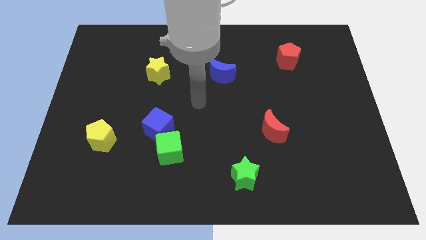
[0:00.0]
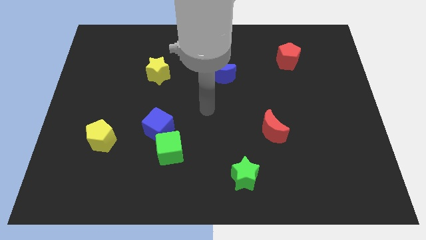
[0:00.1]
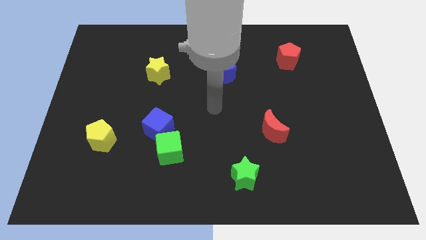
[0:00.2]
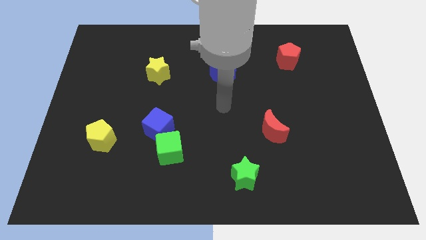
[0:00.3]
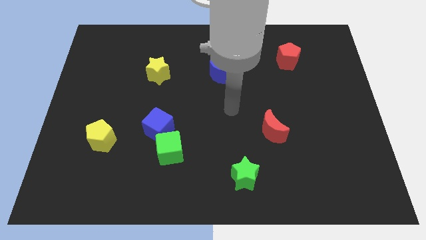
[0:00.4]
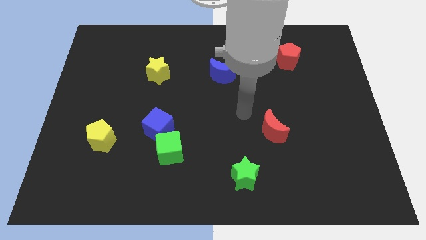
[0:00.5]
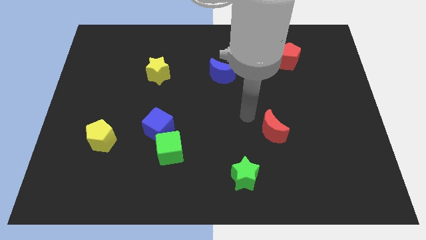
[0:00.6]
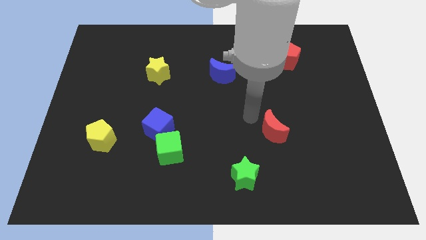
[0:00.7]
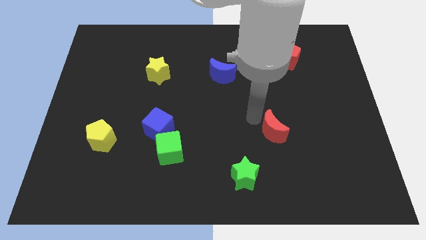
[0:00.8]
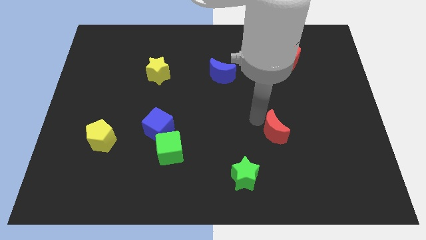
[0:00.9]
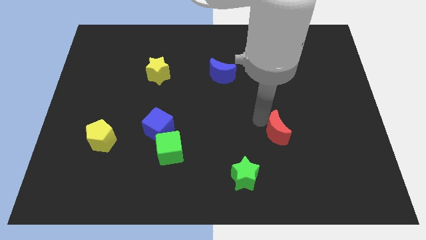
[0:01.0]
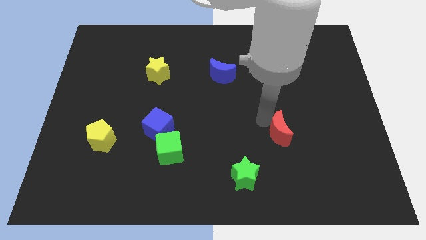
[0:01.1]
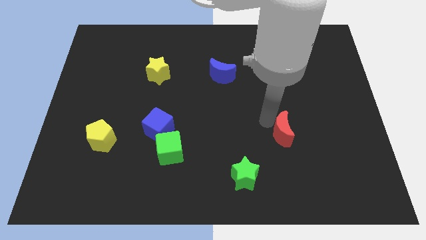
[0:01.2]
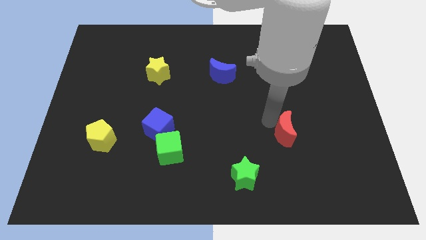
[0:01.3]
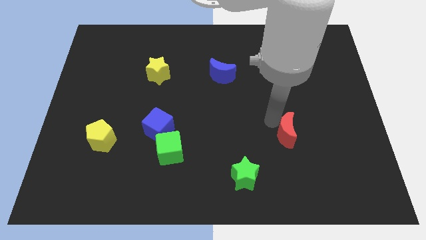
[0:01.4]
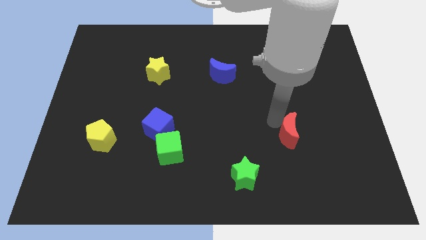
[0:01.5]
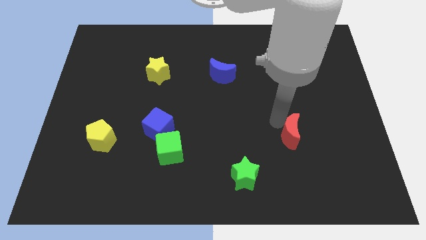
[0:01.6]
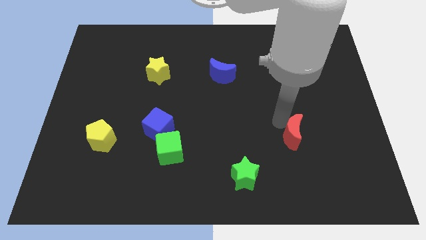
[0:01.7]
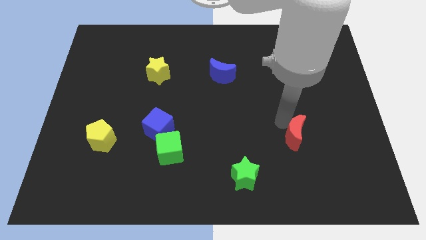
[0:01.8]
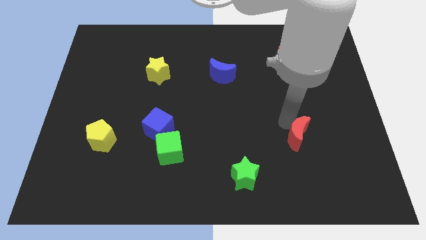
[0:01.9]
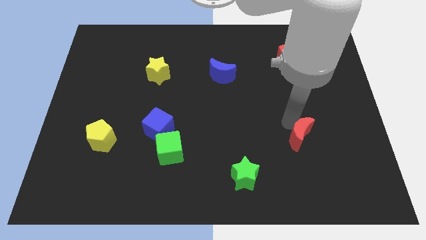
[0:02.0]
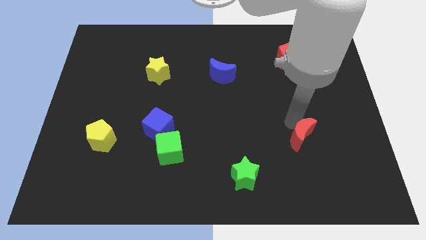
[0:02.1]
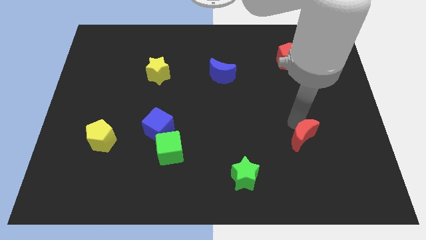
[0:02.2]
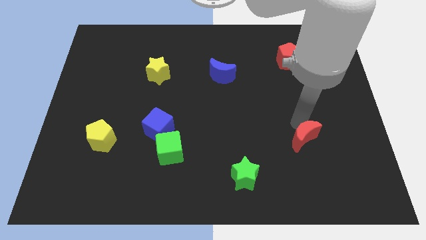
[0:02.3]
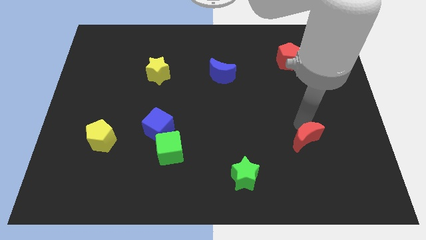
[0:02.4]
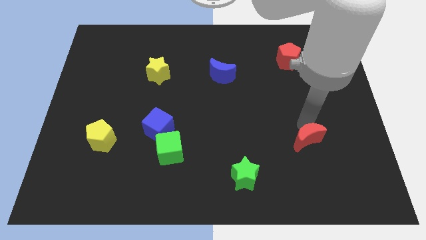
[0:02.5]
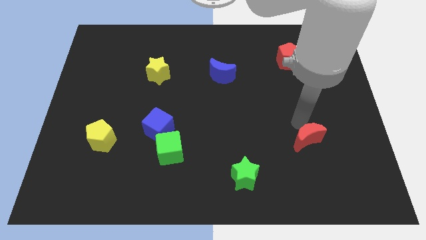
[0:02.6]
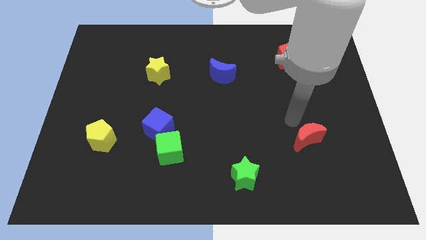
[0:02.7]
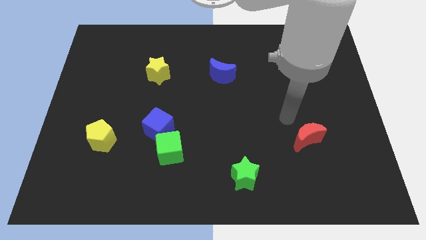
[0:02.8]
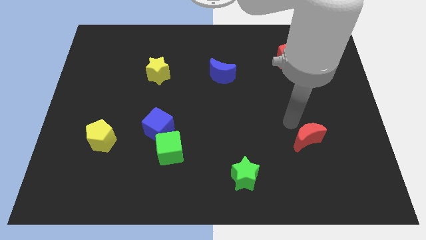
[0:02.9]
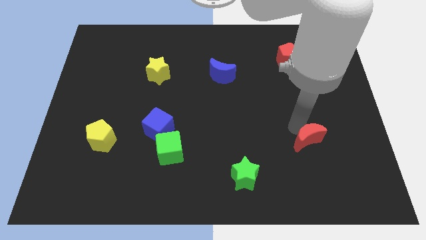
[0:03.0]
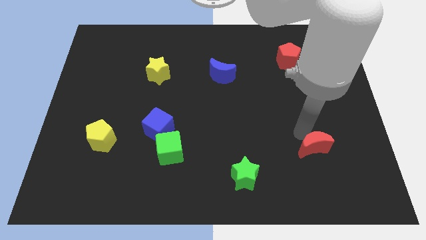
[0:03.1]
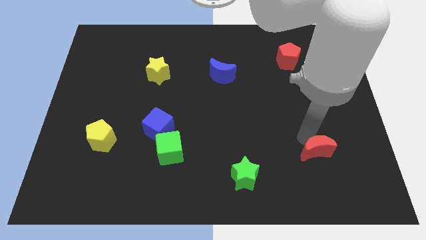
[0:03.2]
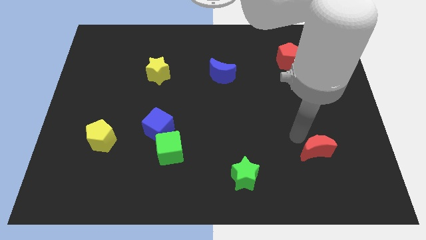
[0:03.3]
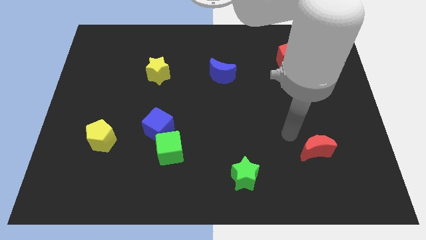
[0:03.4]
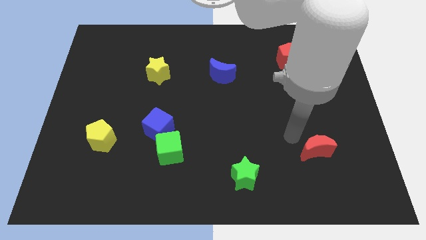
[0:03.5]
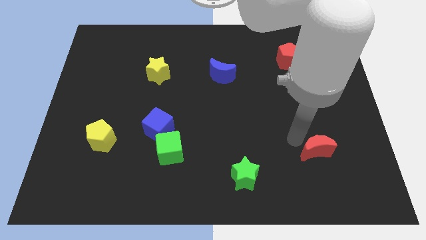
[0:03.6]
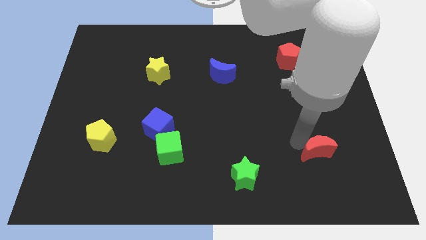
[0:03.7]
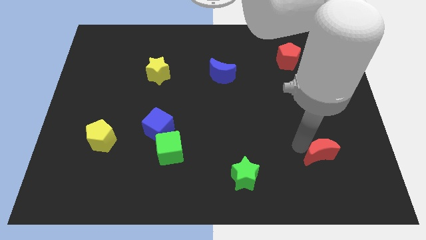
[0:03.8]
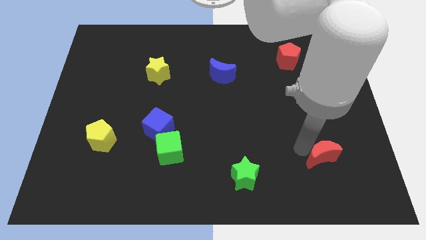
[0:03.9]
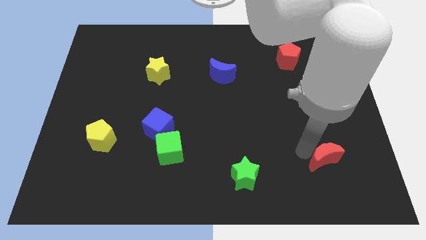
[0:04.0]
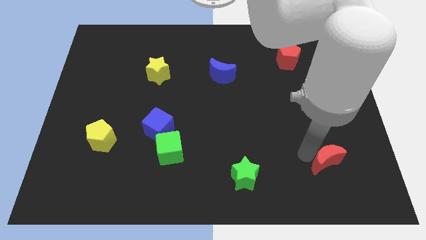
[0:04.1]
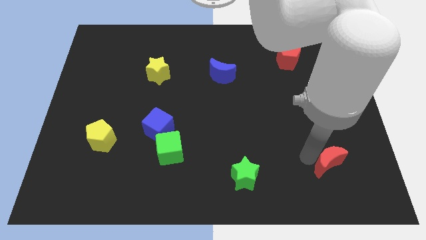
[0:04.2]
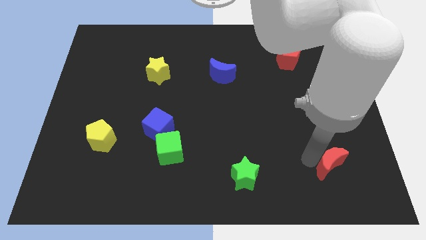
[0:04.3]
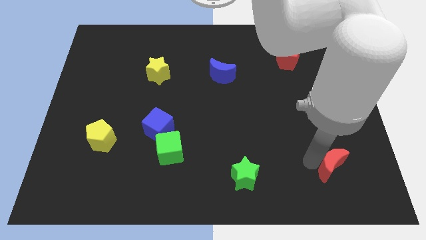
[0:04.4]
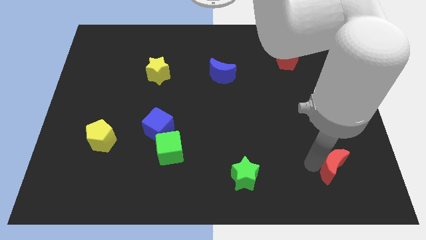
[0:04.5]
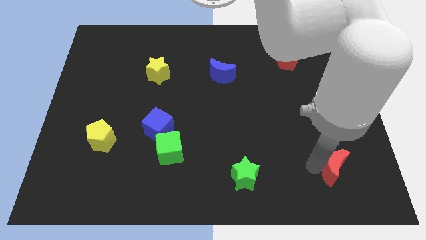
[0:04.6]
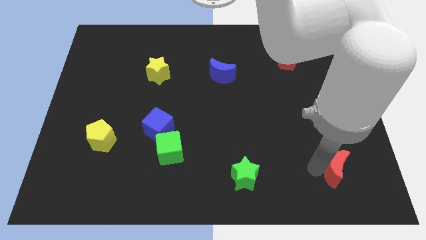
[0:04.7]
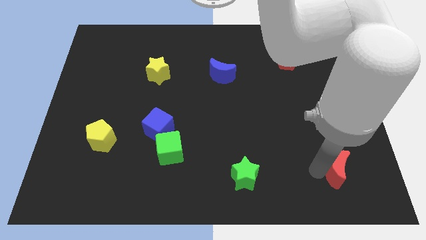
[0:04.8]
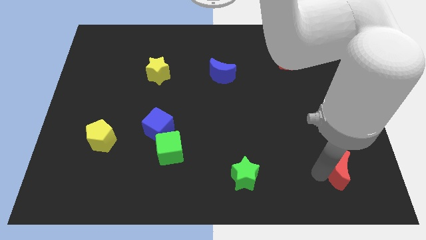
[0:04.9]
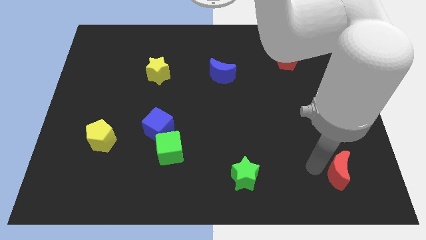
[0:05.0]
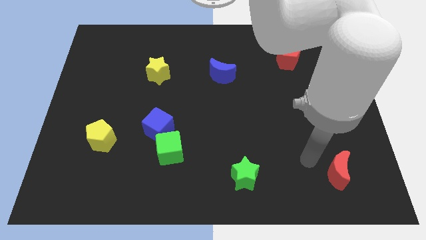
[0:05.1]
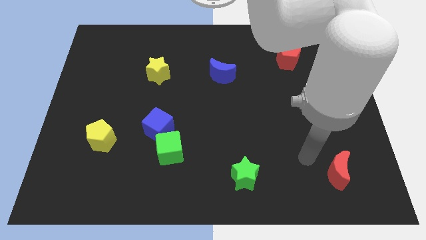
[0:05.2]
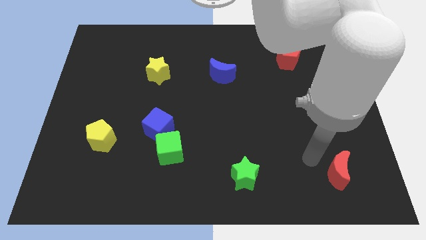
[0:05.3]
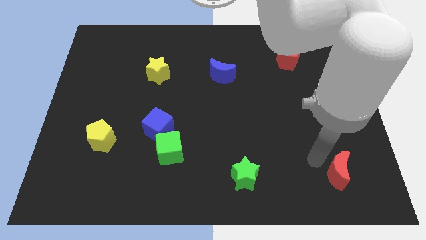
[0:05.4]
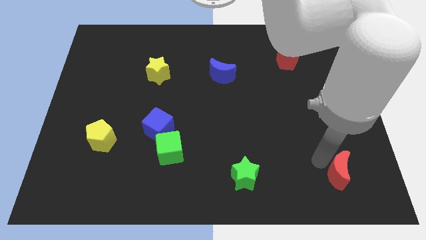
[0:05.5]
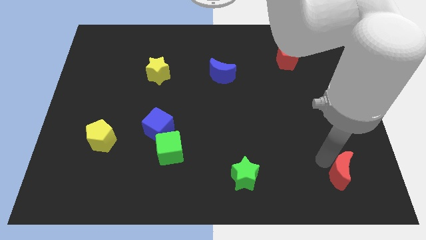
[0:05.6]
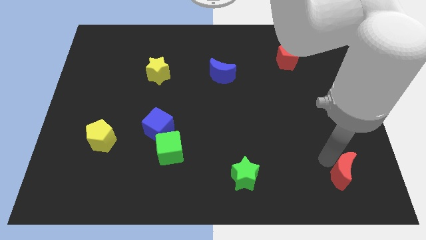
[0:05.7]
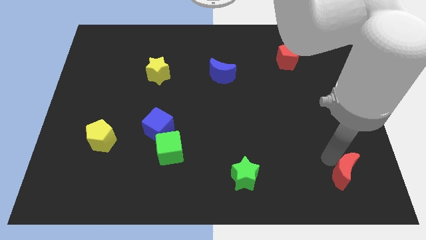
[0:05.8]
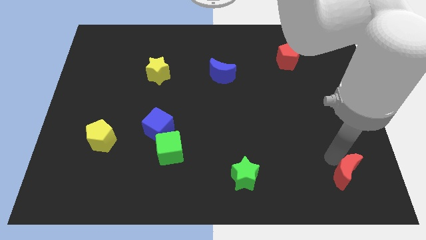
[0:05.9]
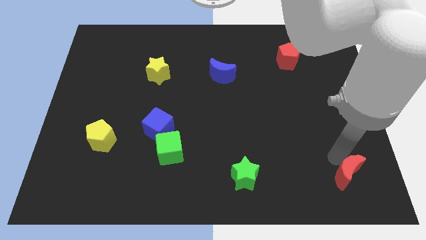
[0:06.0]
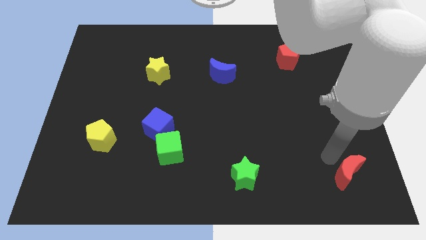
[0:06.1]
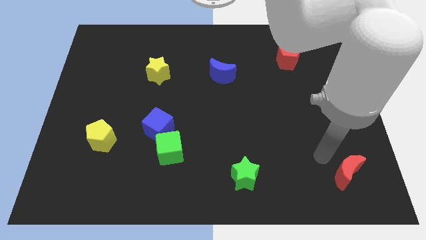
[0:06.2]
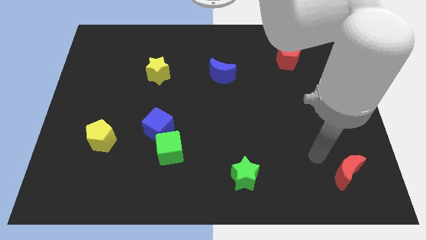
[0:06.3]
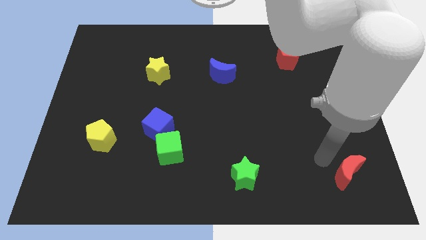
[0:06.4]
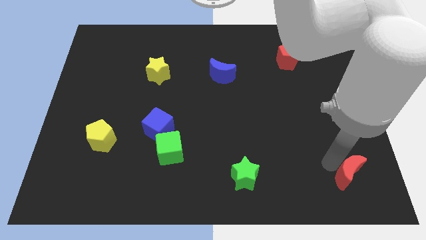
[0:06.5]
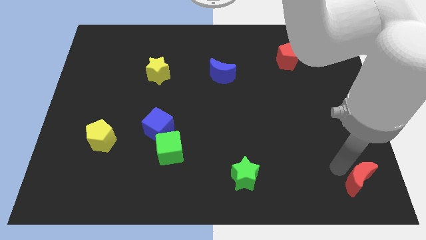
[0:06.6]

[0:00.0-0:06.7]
push the red moon to the lower right corner
